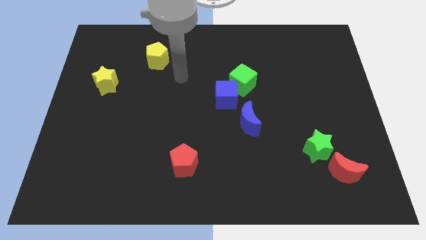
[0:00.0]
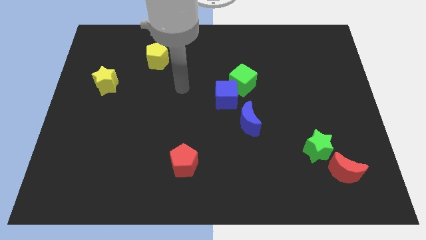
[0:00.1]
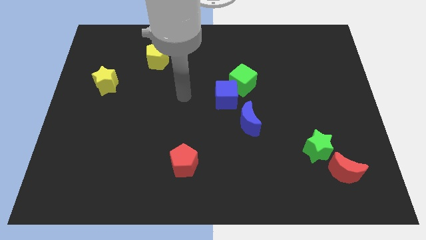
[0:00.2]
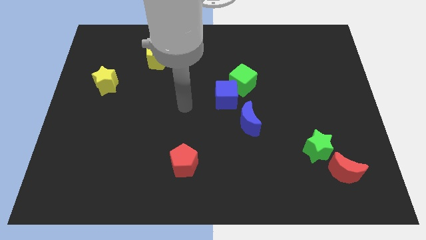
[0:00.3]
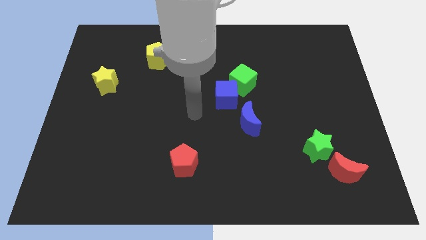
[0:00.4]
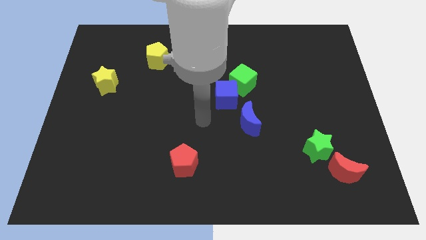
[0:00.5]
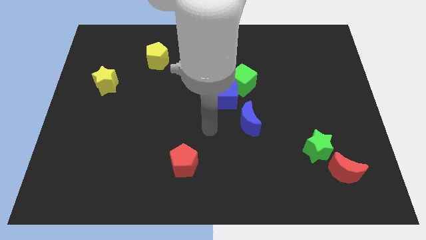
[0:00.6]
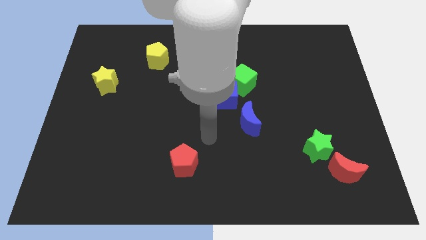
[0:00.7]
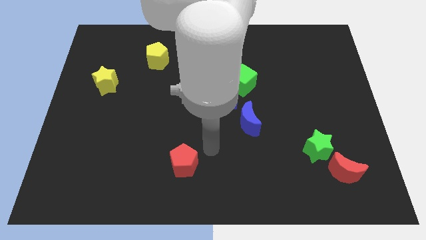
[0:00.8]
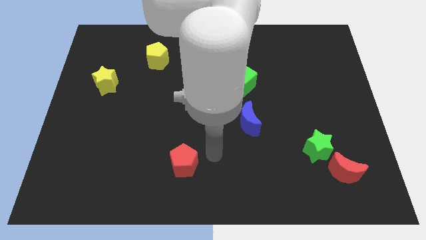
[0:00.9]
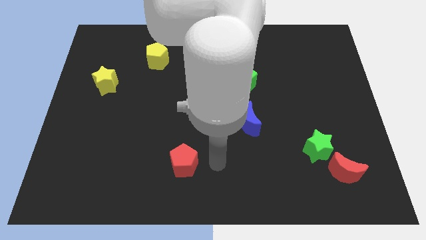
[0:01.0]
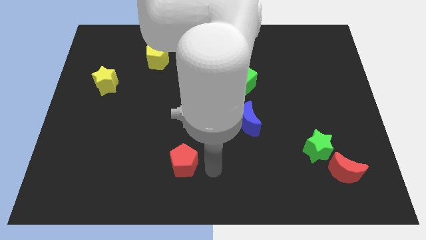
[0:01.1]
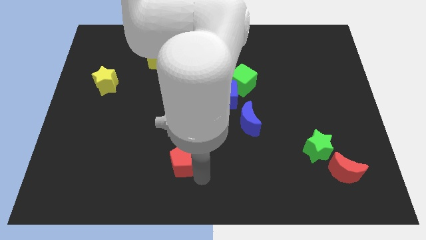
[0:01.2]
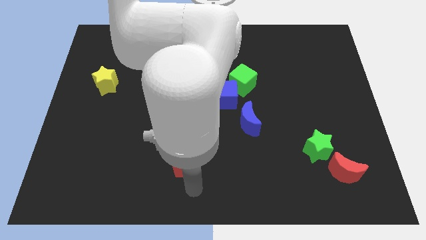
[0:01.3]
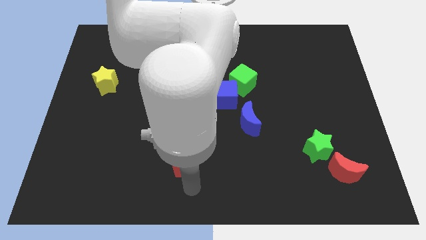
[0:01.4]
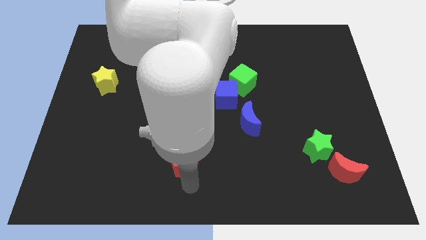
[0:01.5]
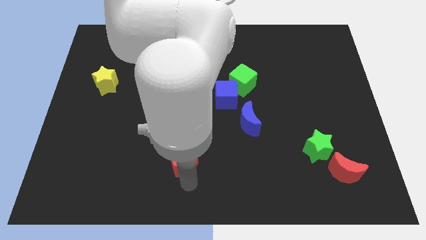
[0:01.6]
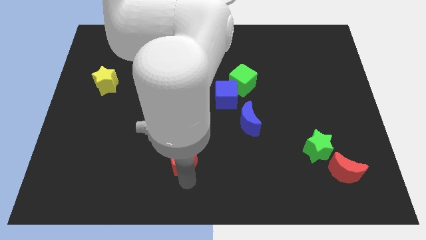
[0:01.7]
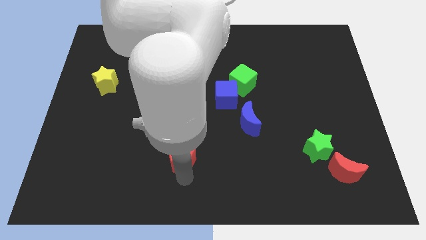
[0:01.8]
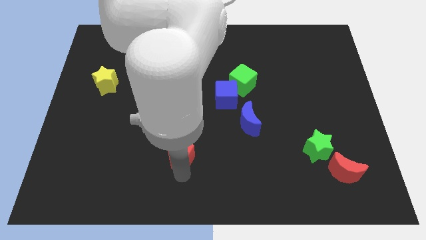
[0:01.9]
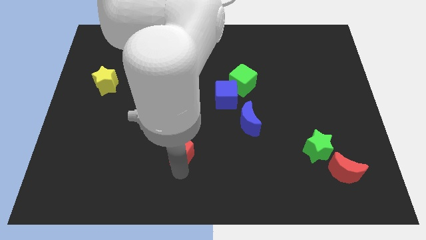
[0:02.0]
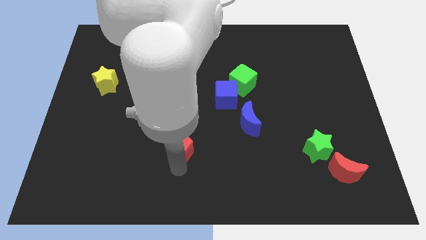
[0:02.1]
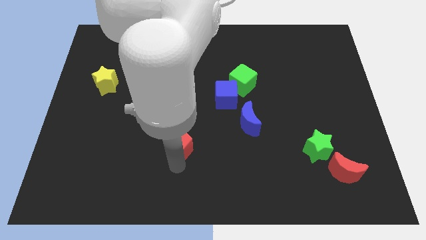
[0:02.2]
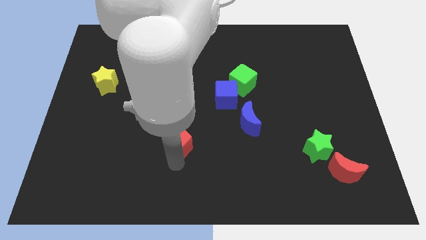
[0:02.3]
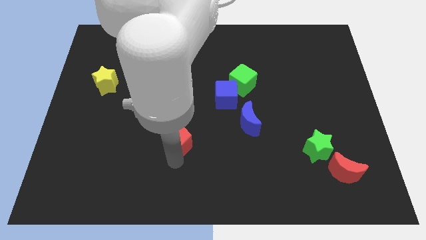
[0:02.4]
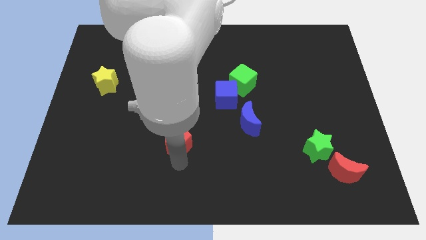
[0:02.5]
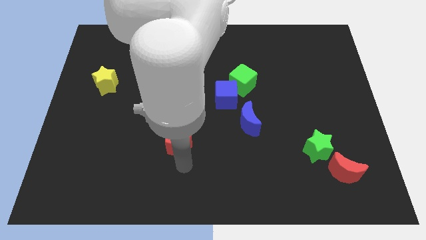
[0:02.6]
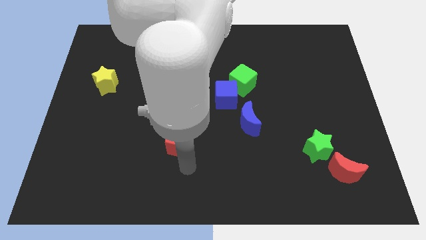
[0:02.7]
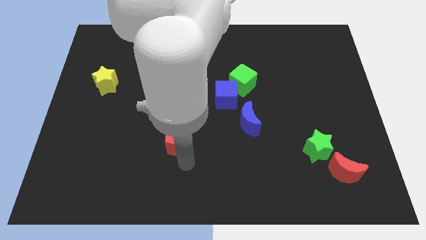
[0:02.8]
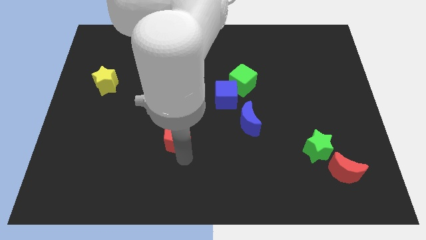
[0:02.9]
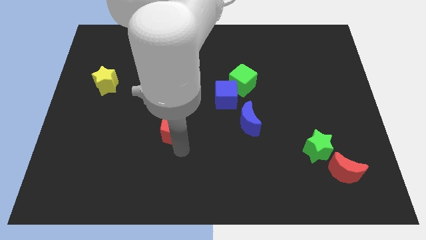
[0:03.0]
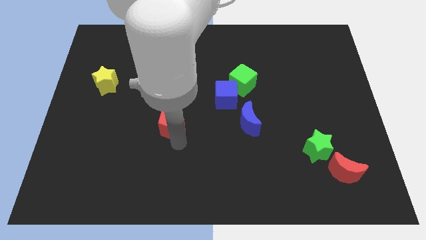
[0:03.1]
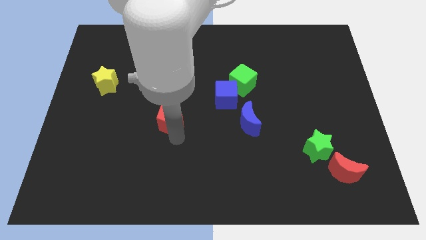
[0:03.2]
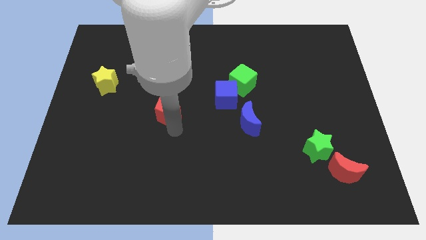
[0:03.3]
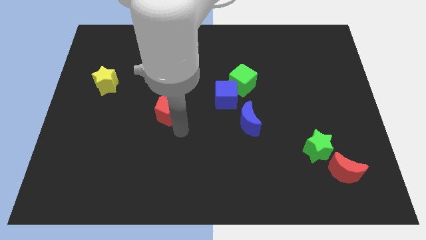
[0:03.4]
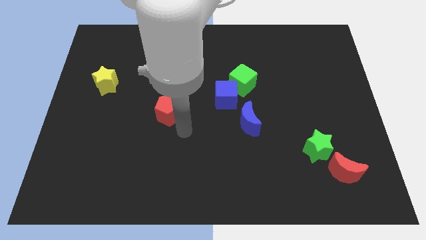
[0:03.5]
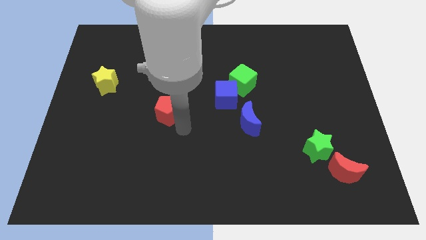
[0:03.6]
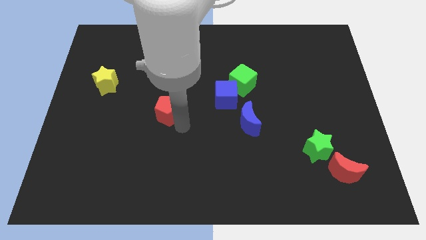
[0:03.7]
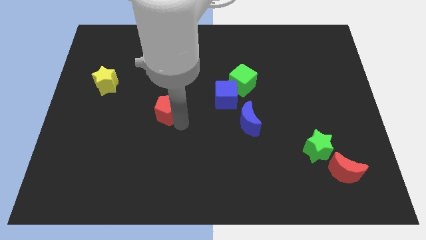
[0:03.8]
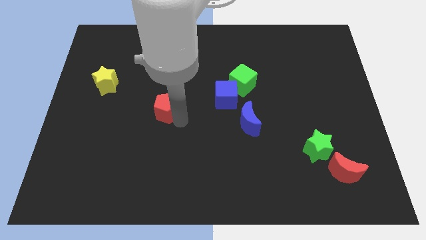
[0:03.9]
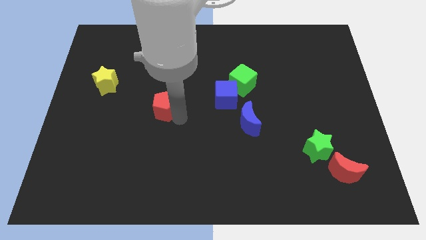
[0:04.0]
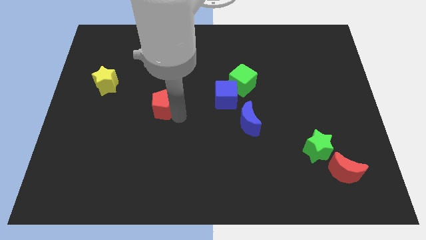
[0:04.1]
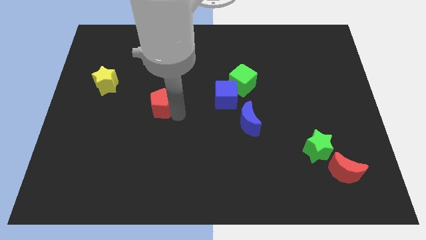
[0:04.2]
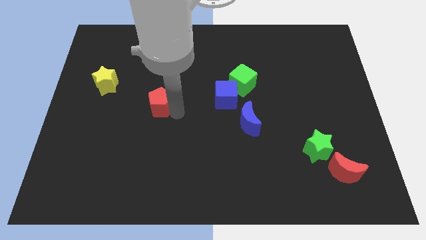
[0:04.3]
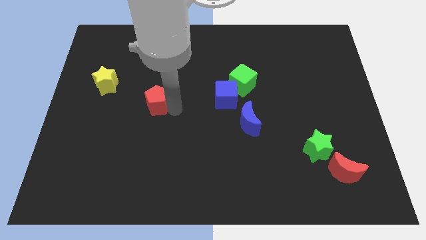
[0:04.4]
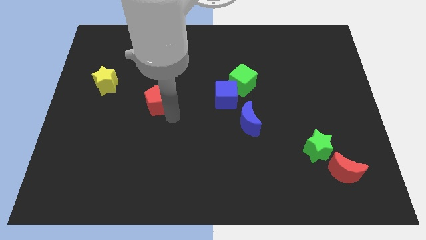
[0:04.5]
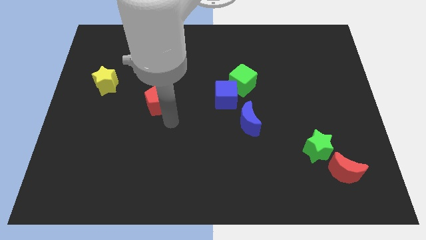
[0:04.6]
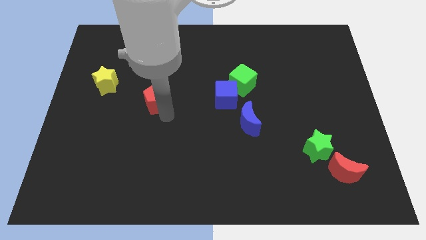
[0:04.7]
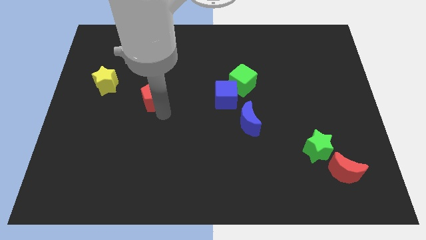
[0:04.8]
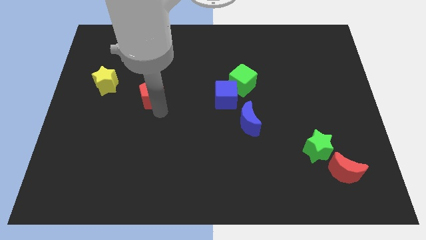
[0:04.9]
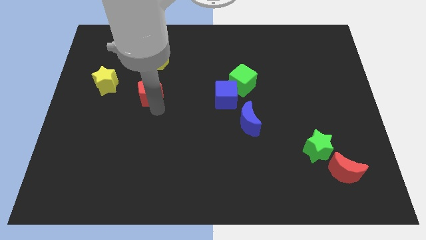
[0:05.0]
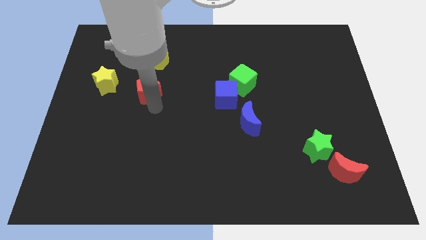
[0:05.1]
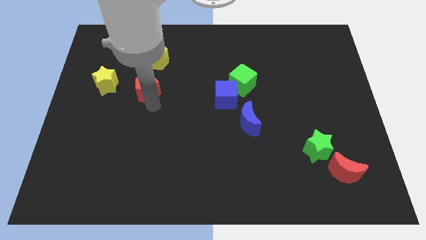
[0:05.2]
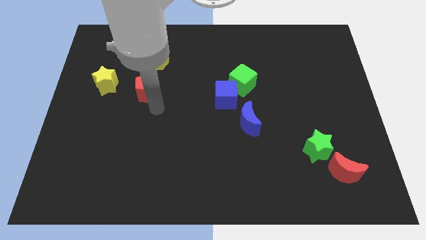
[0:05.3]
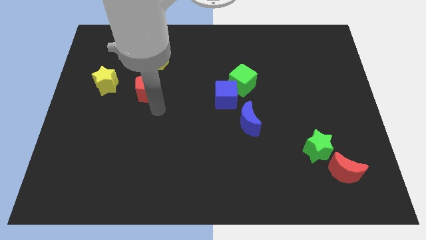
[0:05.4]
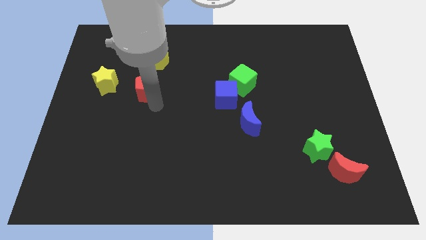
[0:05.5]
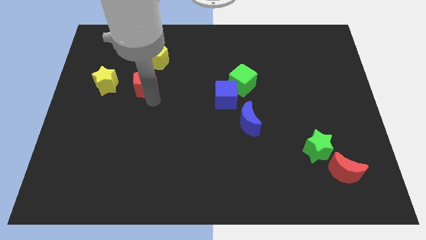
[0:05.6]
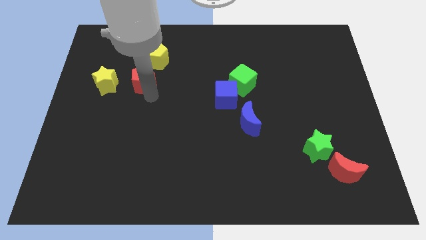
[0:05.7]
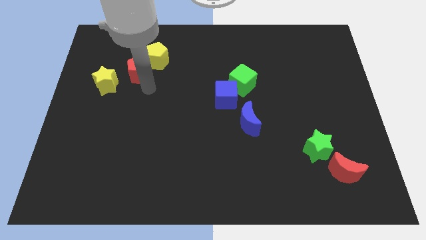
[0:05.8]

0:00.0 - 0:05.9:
push the red pentagon to the left of the yellow pentagon

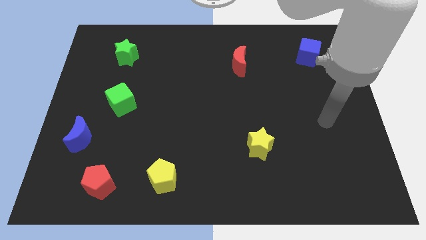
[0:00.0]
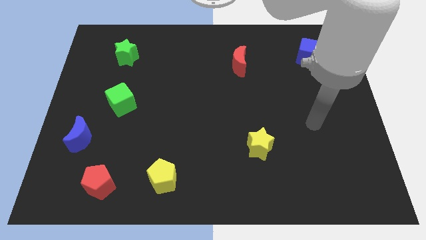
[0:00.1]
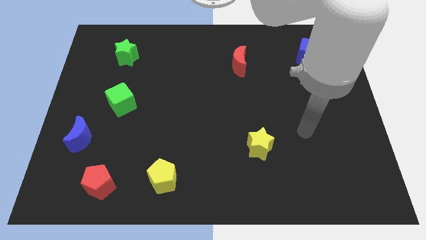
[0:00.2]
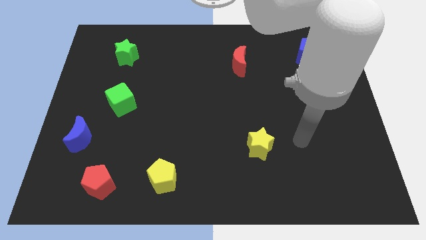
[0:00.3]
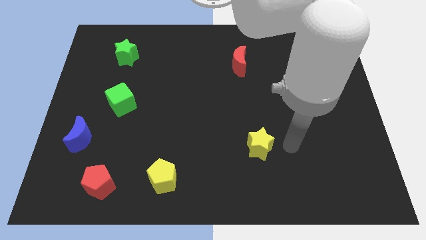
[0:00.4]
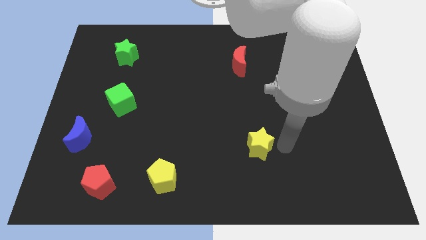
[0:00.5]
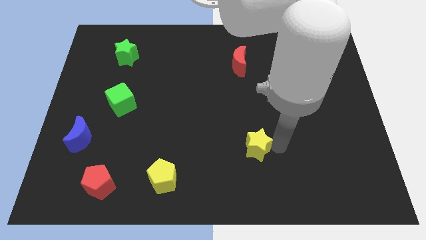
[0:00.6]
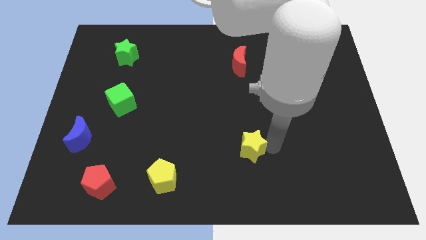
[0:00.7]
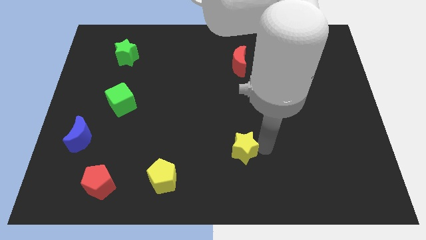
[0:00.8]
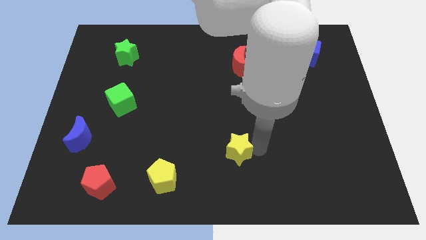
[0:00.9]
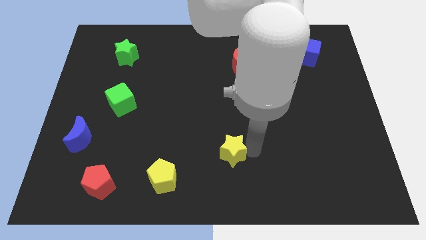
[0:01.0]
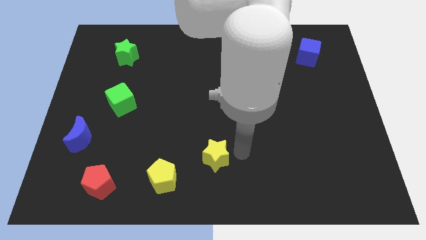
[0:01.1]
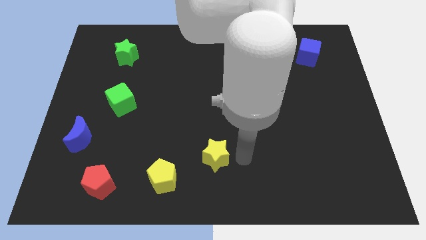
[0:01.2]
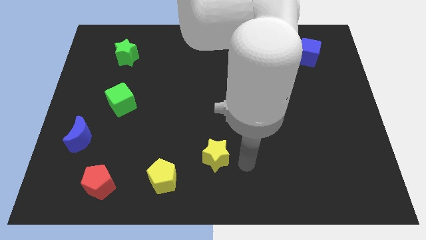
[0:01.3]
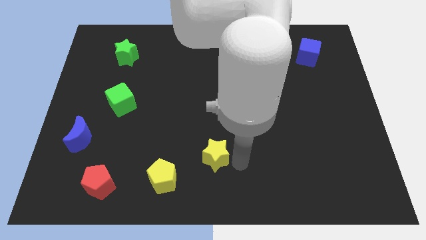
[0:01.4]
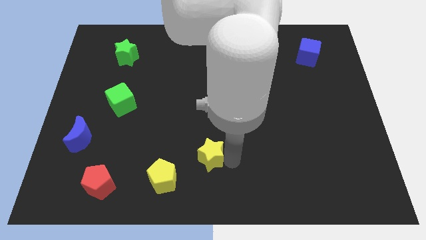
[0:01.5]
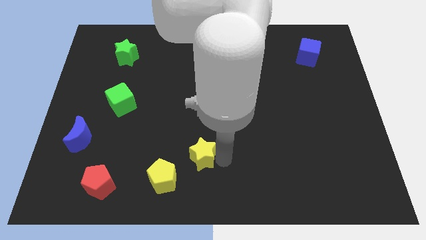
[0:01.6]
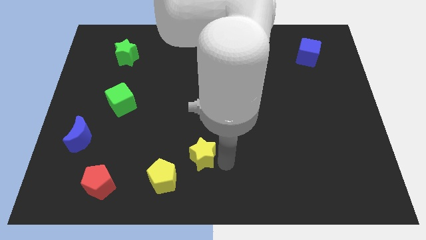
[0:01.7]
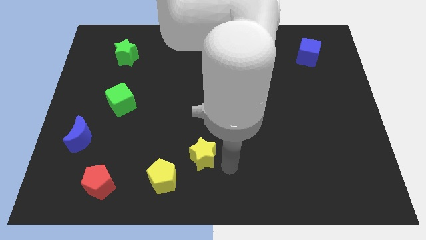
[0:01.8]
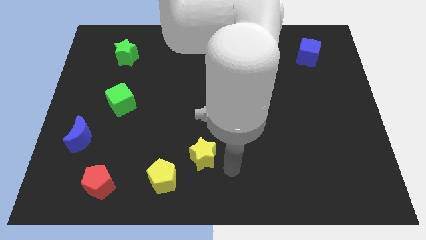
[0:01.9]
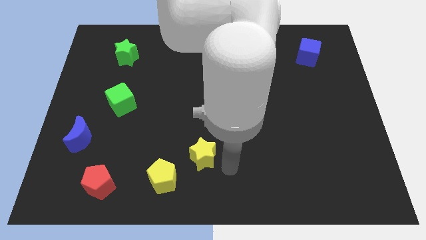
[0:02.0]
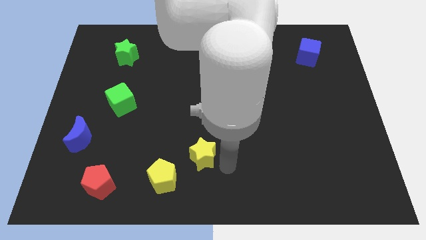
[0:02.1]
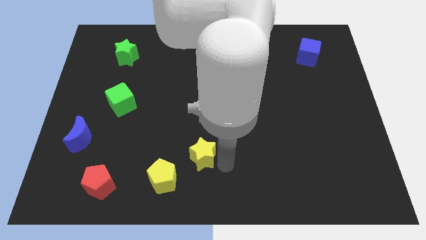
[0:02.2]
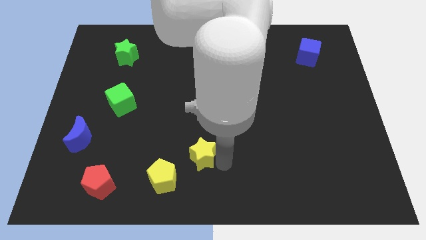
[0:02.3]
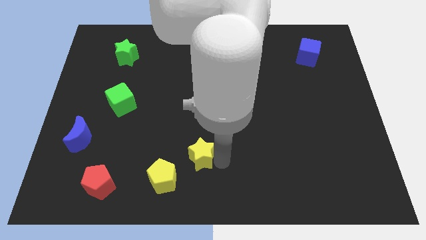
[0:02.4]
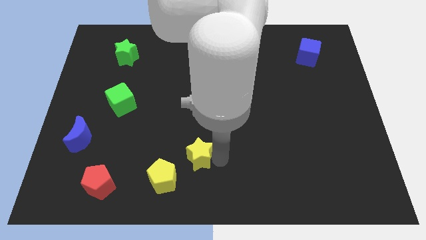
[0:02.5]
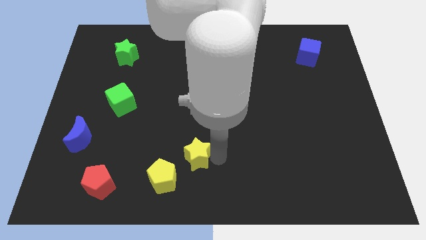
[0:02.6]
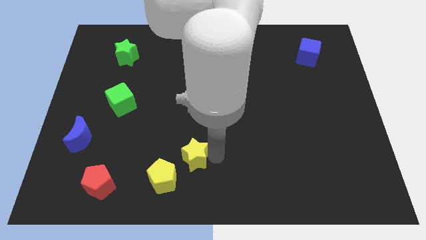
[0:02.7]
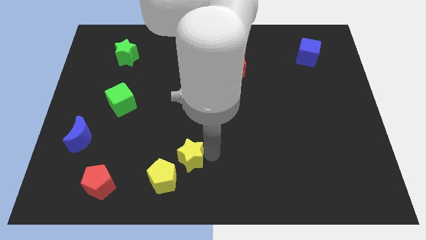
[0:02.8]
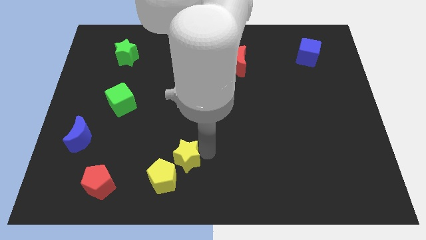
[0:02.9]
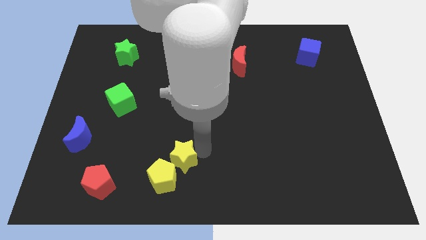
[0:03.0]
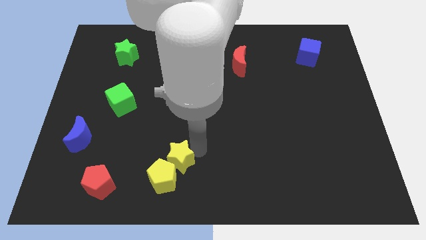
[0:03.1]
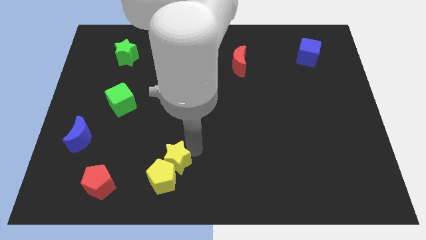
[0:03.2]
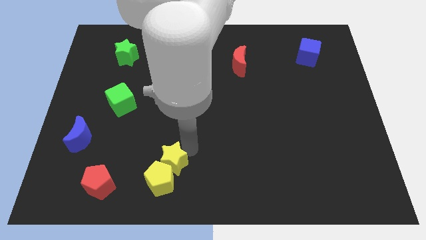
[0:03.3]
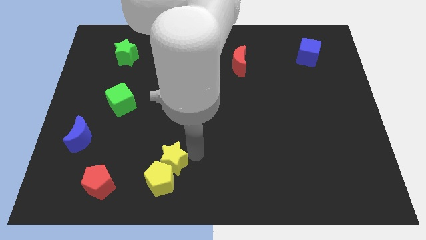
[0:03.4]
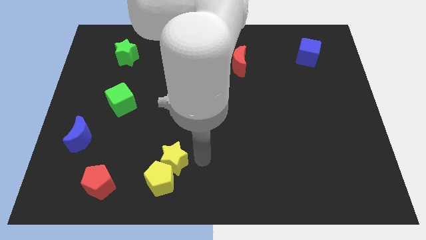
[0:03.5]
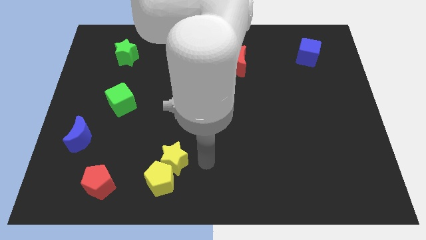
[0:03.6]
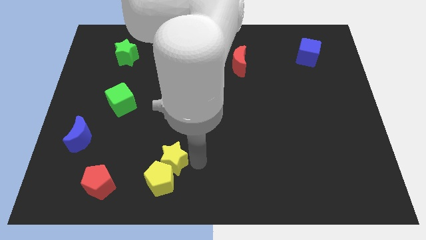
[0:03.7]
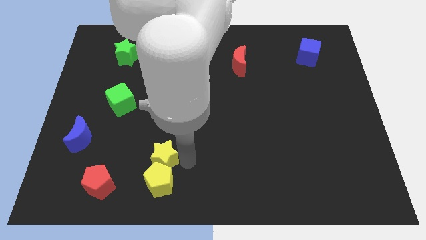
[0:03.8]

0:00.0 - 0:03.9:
push the yellow star diagonally up and to the left of the yellow pentagon
